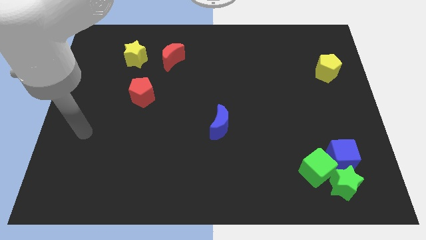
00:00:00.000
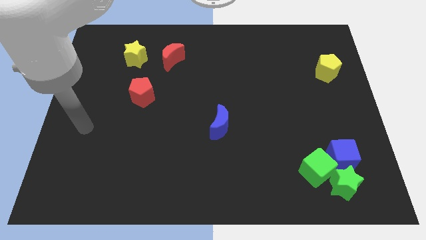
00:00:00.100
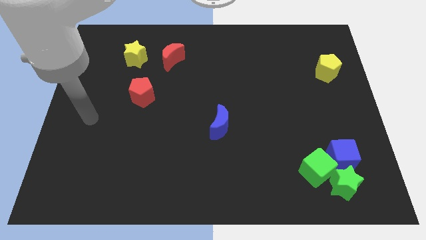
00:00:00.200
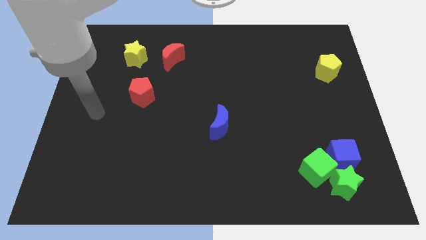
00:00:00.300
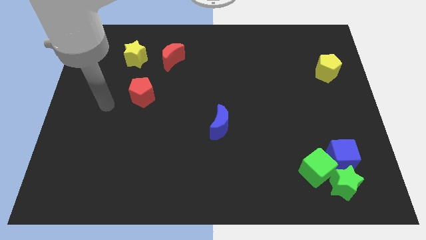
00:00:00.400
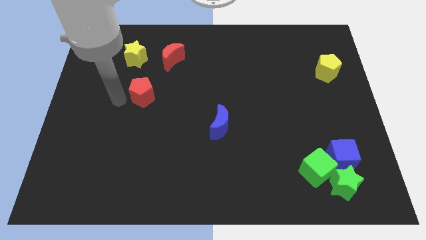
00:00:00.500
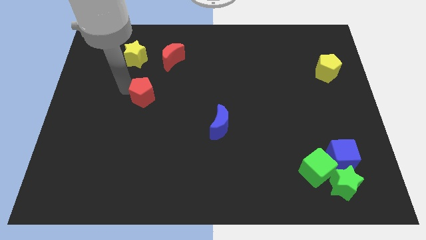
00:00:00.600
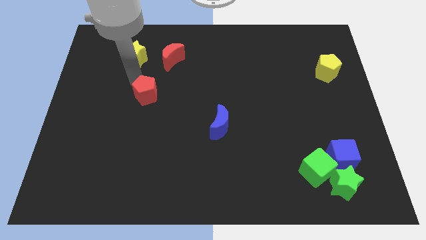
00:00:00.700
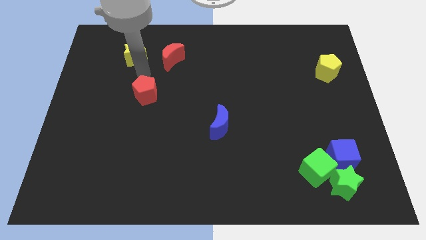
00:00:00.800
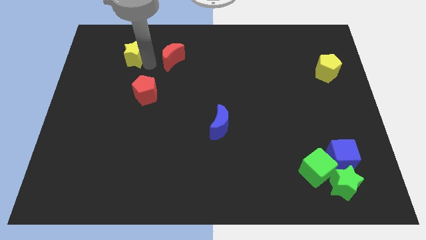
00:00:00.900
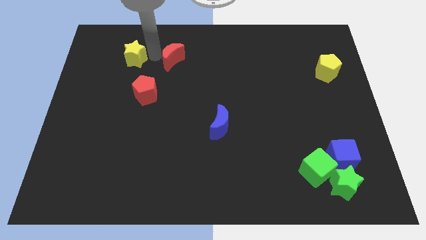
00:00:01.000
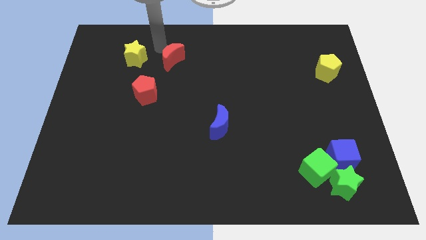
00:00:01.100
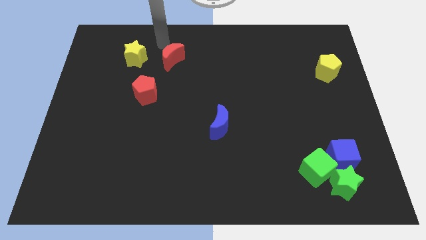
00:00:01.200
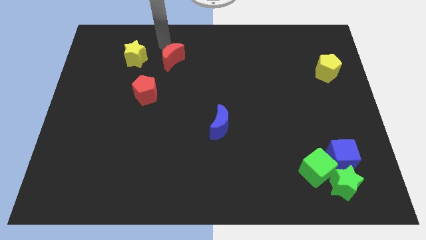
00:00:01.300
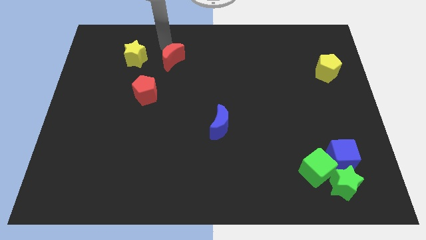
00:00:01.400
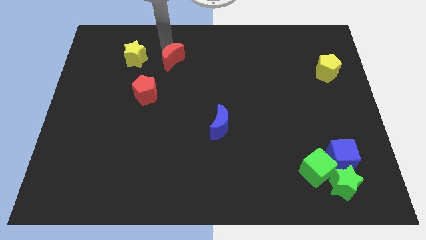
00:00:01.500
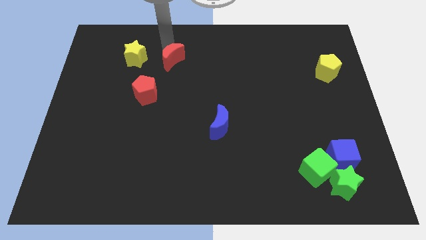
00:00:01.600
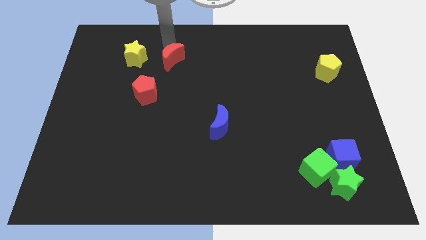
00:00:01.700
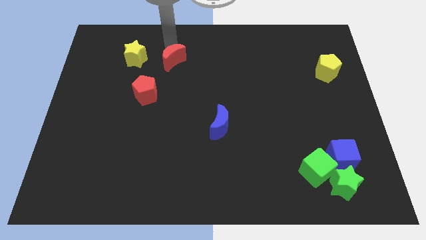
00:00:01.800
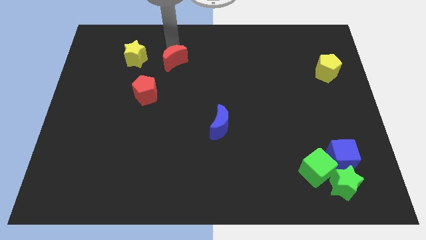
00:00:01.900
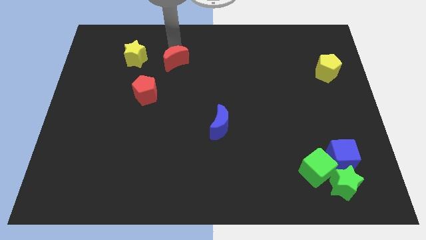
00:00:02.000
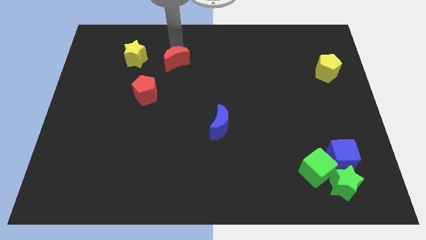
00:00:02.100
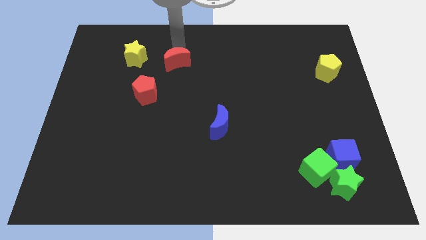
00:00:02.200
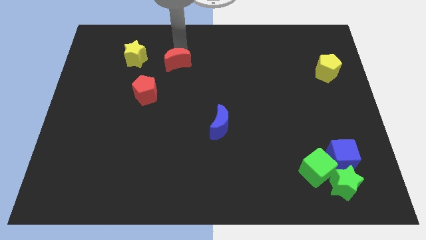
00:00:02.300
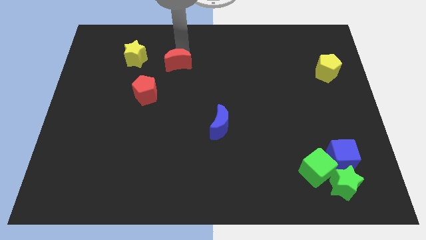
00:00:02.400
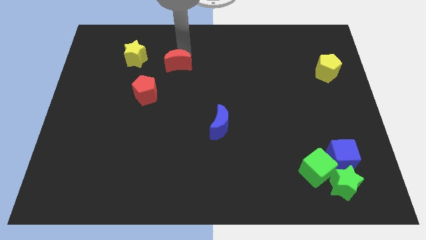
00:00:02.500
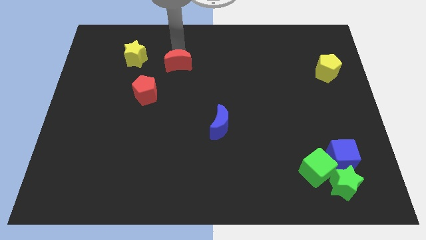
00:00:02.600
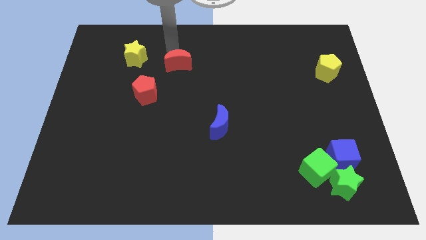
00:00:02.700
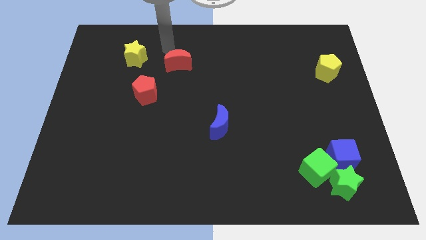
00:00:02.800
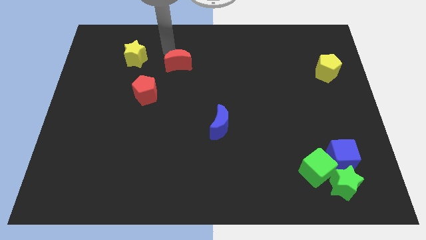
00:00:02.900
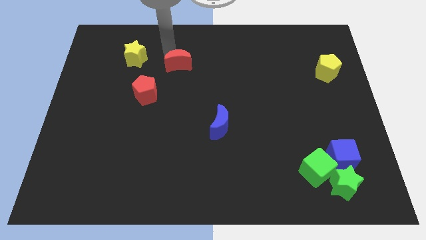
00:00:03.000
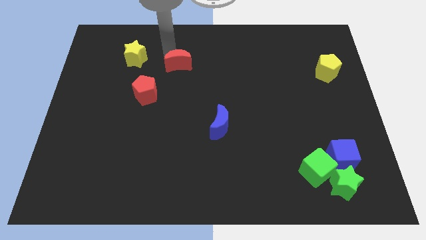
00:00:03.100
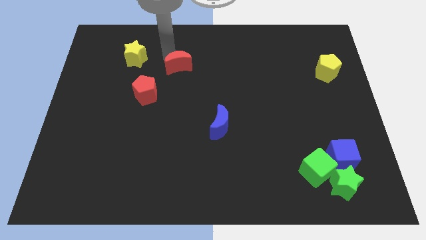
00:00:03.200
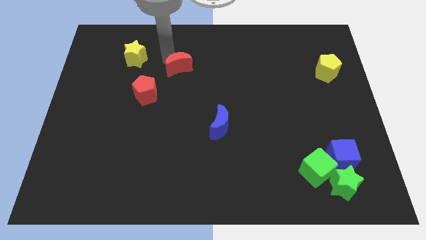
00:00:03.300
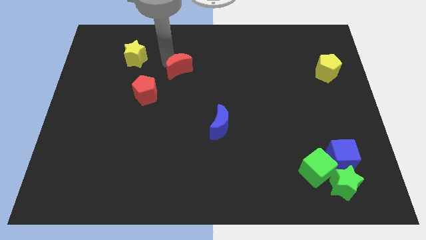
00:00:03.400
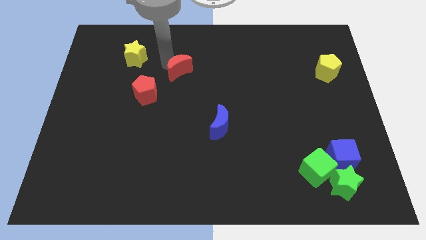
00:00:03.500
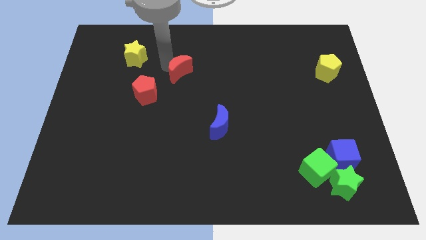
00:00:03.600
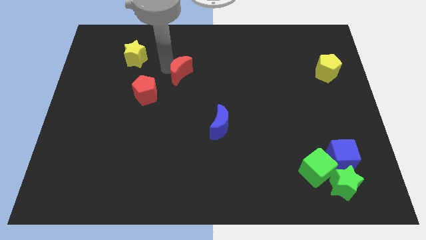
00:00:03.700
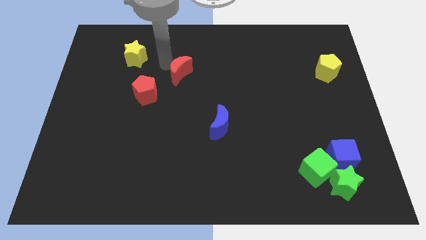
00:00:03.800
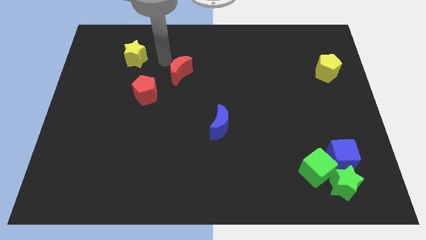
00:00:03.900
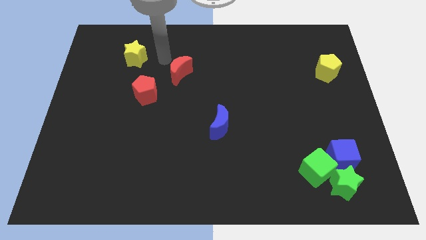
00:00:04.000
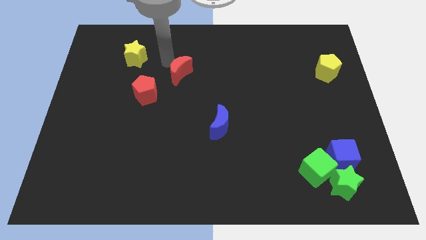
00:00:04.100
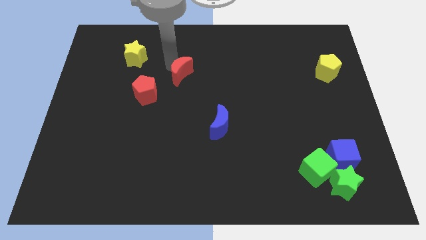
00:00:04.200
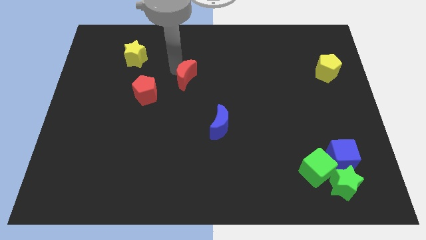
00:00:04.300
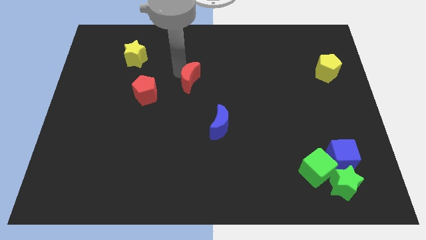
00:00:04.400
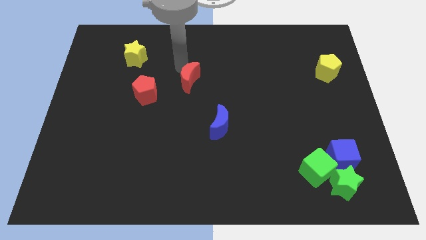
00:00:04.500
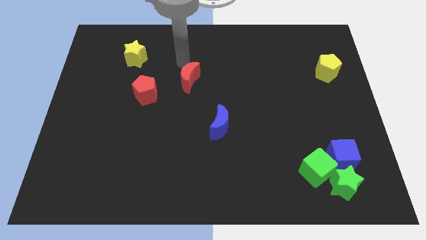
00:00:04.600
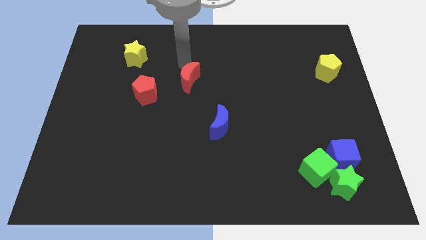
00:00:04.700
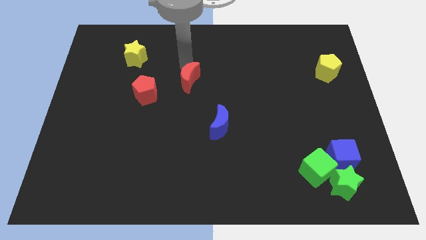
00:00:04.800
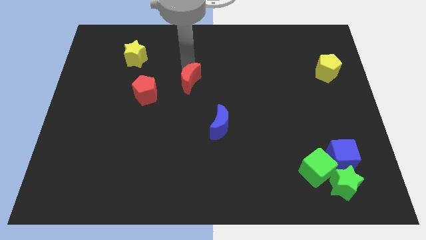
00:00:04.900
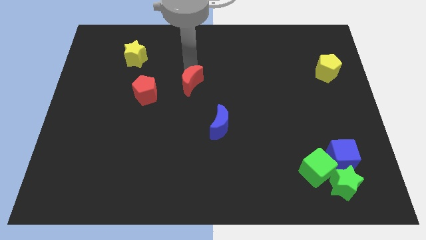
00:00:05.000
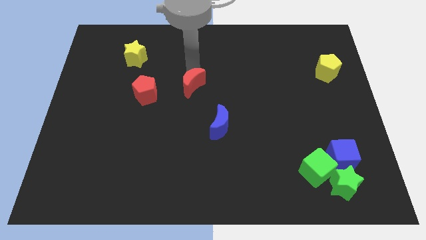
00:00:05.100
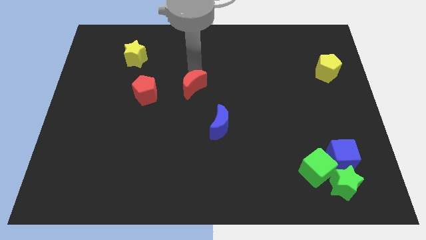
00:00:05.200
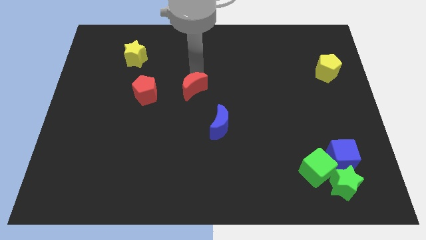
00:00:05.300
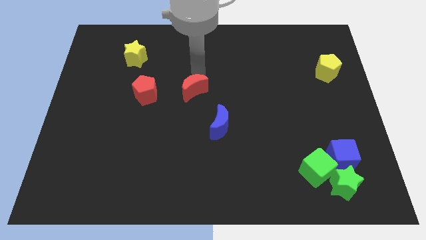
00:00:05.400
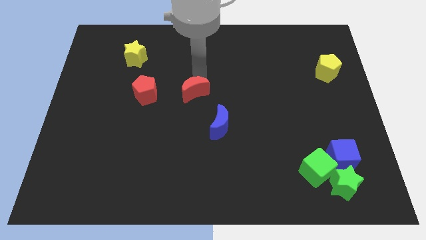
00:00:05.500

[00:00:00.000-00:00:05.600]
put the red moon to the top left of the blue moon

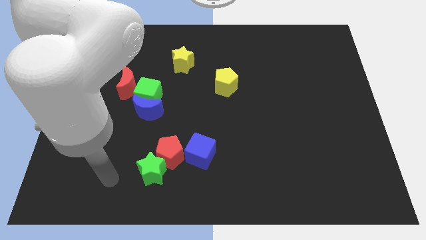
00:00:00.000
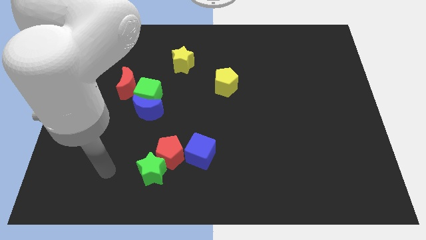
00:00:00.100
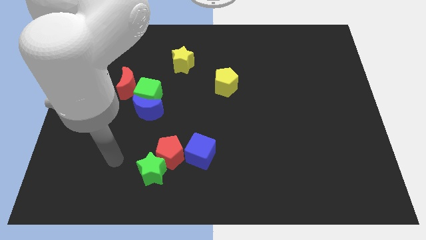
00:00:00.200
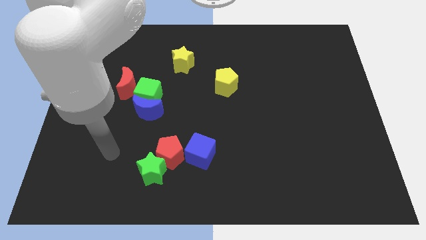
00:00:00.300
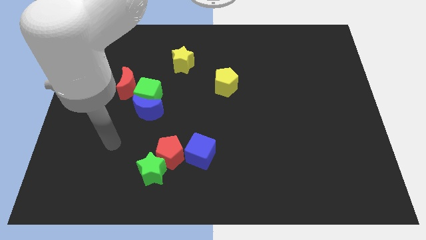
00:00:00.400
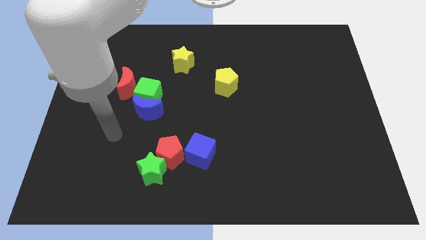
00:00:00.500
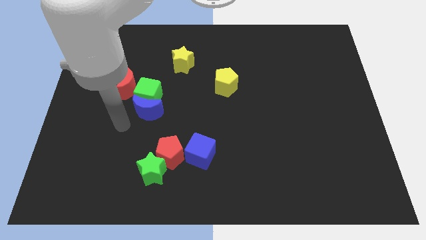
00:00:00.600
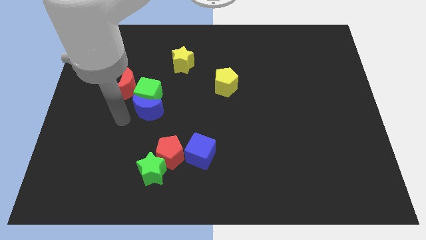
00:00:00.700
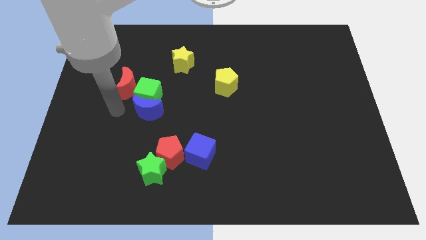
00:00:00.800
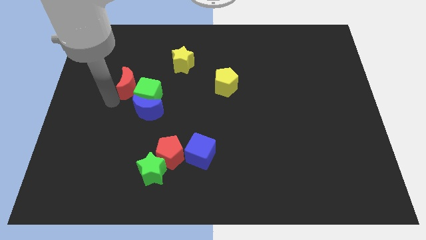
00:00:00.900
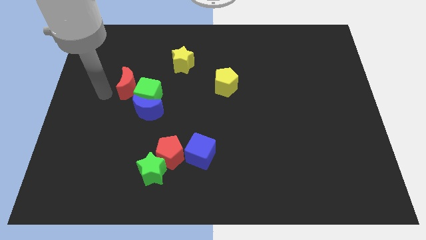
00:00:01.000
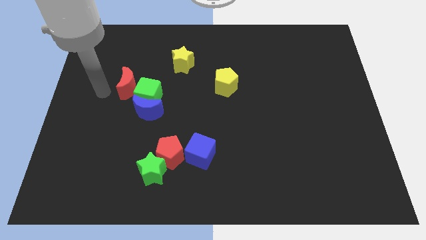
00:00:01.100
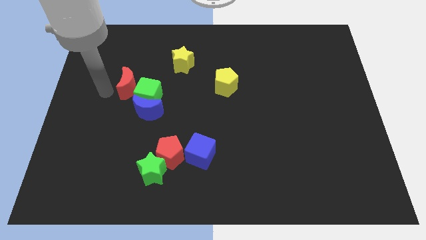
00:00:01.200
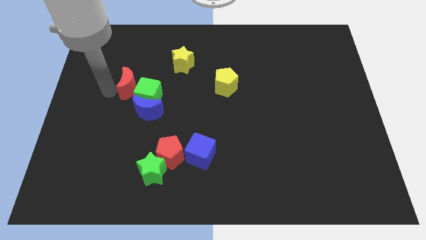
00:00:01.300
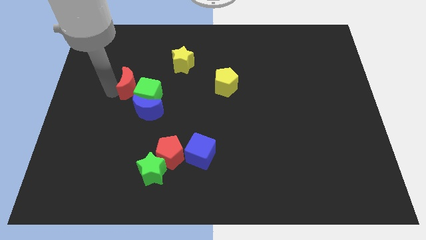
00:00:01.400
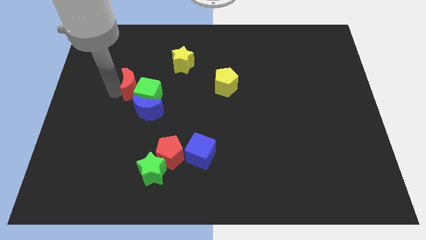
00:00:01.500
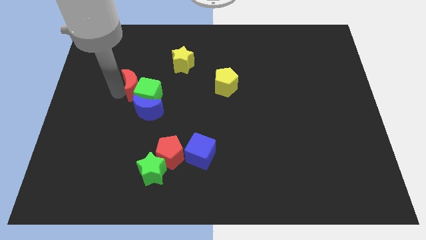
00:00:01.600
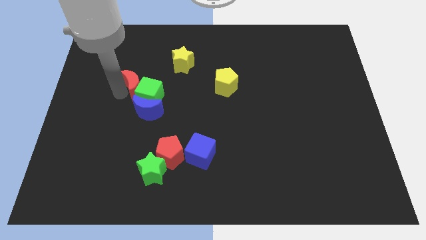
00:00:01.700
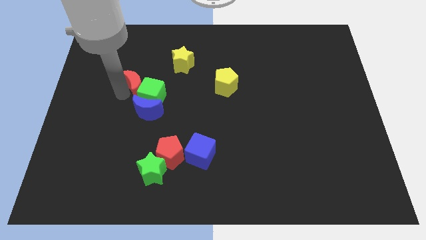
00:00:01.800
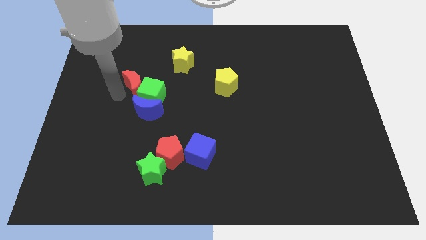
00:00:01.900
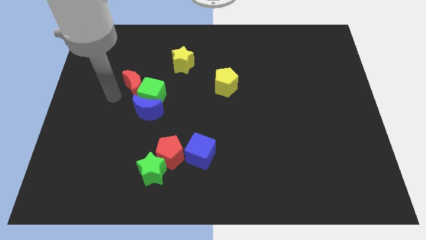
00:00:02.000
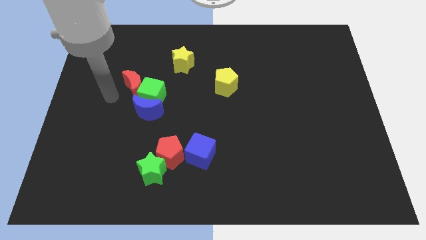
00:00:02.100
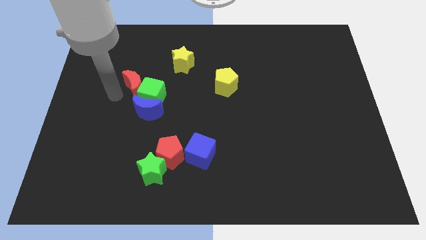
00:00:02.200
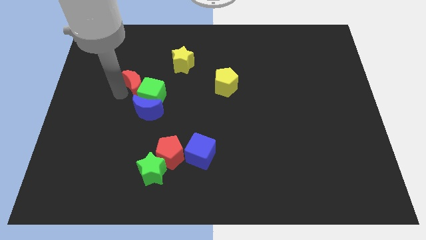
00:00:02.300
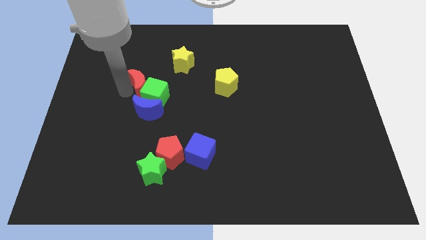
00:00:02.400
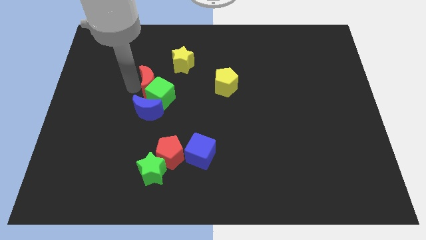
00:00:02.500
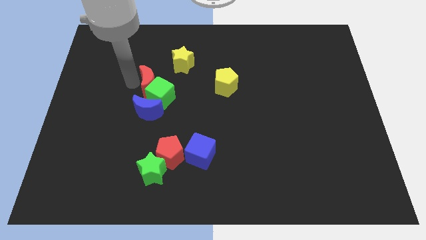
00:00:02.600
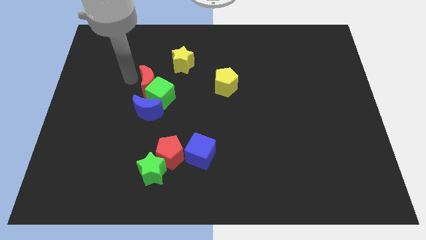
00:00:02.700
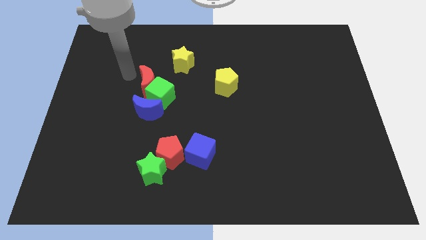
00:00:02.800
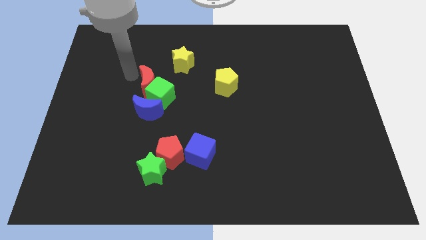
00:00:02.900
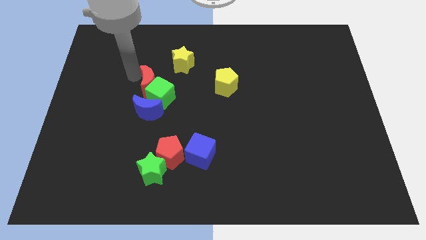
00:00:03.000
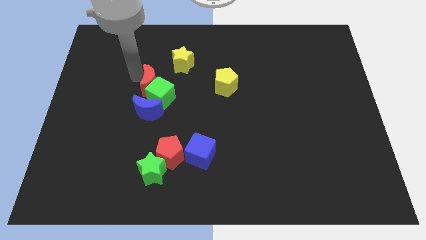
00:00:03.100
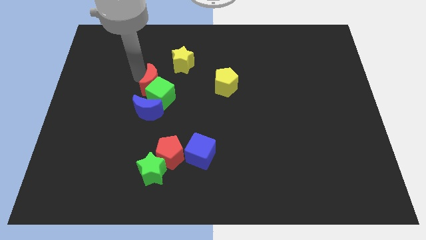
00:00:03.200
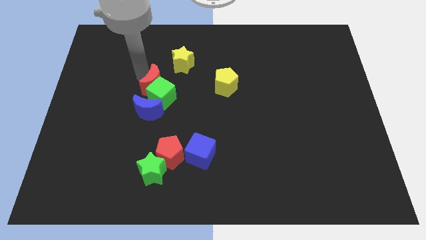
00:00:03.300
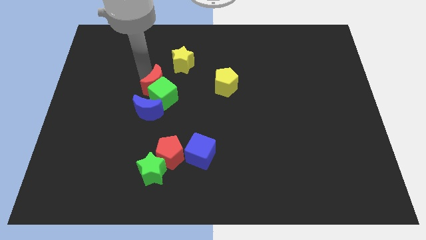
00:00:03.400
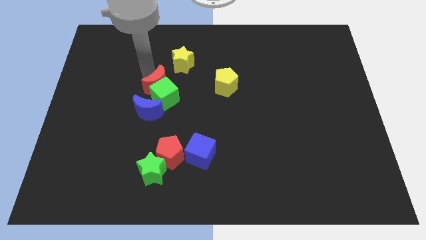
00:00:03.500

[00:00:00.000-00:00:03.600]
put the red moon to the top right of the blue moon
